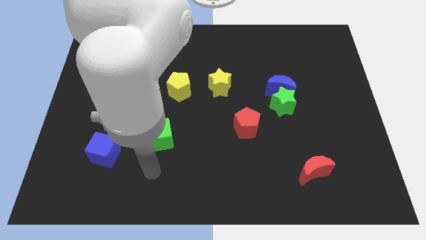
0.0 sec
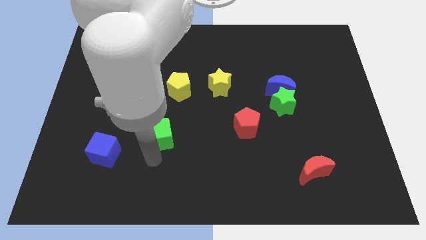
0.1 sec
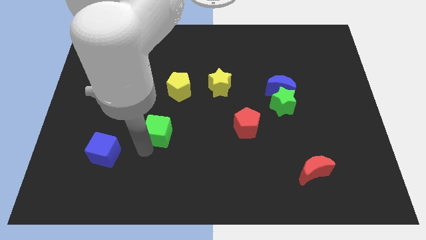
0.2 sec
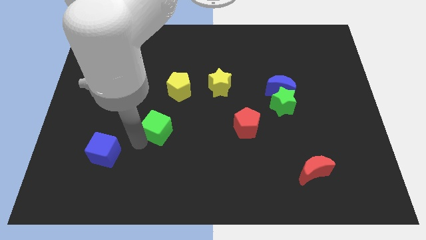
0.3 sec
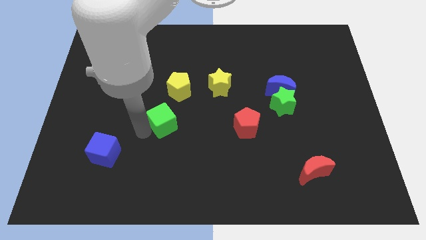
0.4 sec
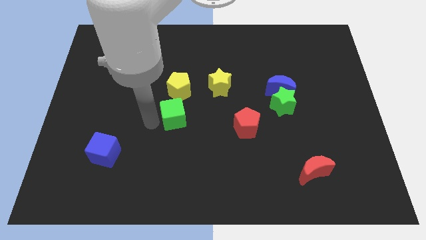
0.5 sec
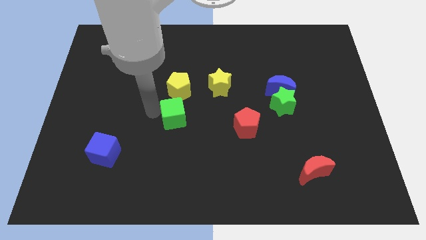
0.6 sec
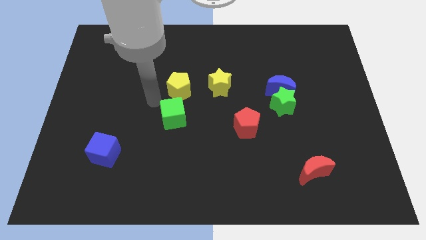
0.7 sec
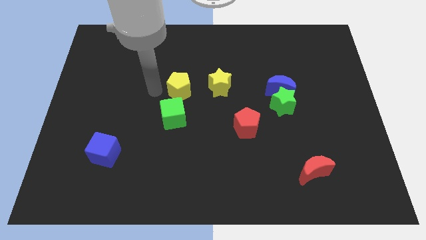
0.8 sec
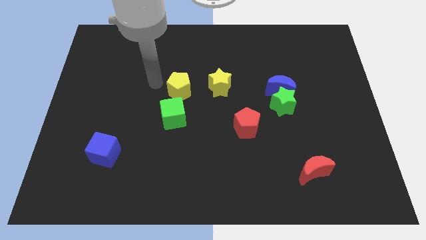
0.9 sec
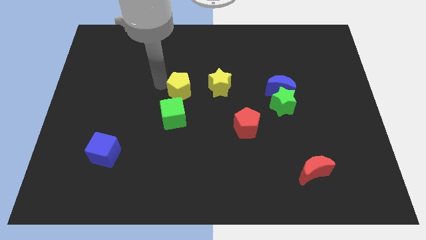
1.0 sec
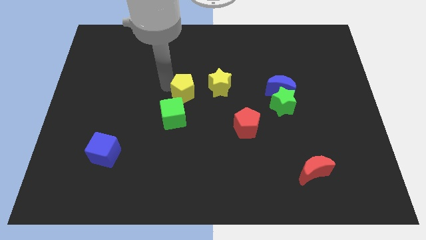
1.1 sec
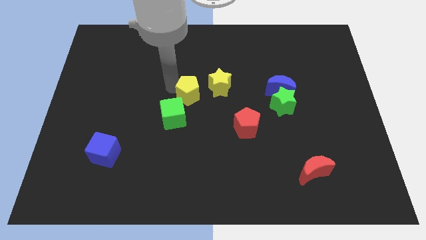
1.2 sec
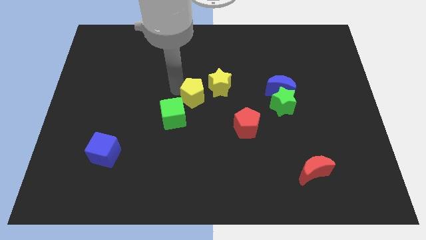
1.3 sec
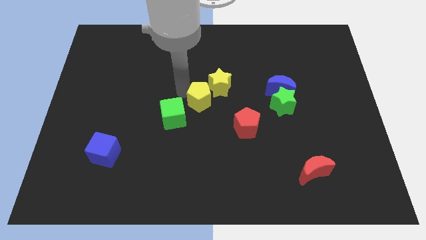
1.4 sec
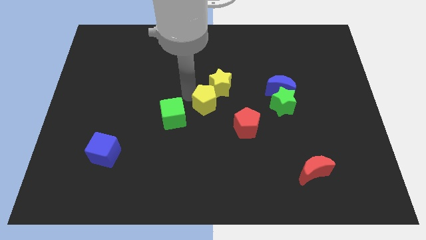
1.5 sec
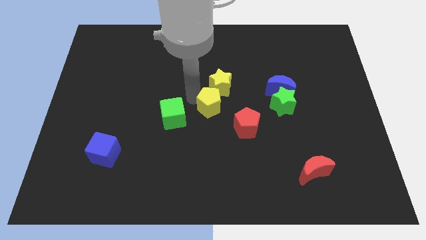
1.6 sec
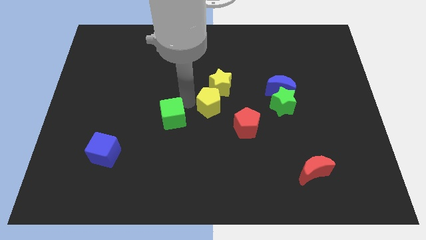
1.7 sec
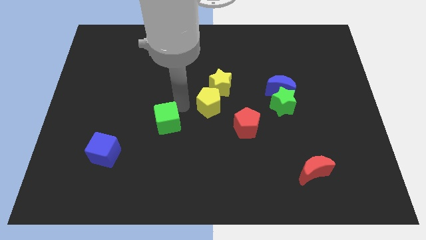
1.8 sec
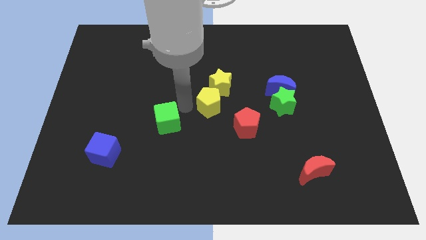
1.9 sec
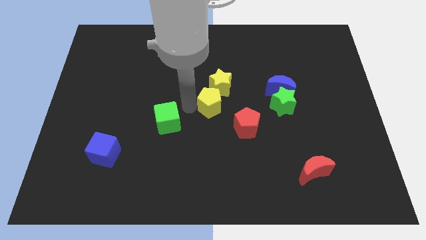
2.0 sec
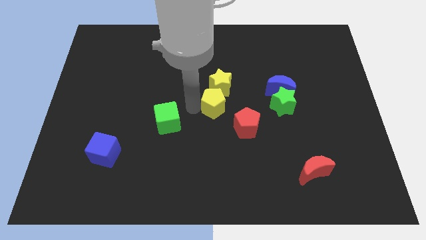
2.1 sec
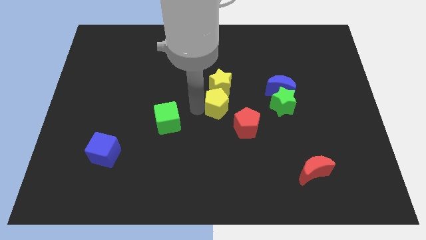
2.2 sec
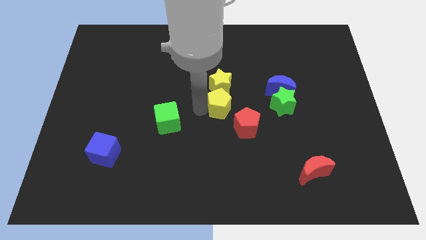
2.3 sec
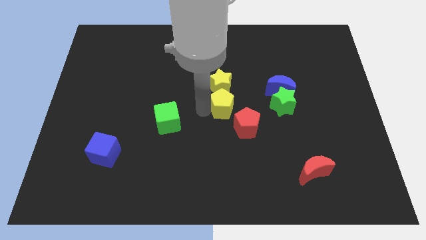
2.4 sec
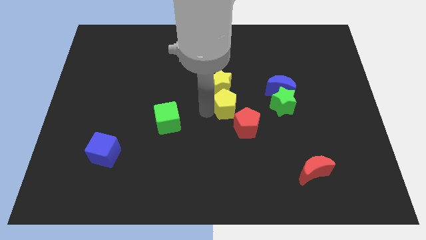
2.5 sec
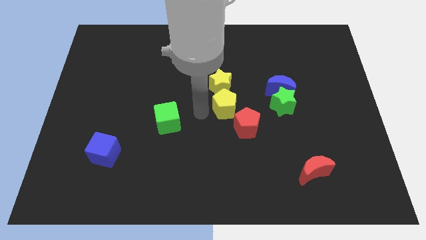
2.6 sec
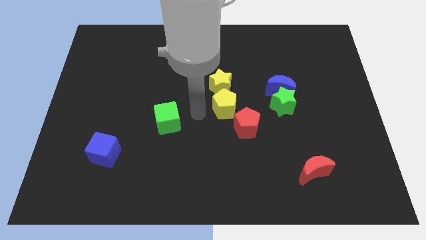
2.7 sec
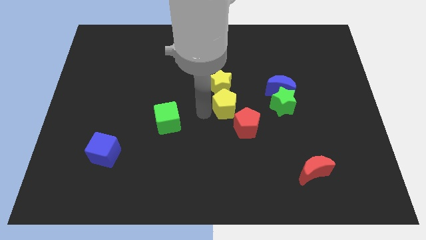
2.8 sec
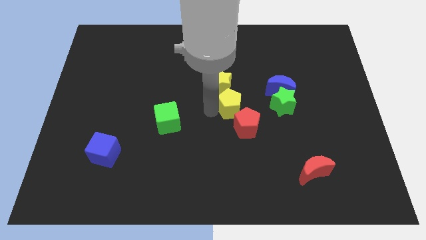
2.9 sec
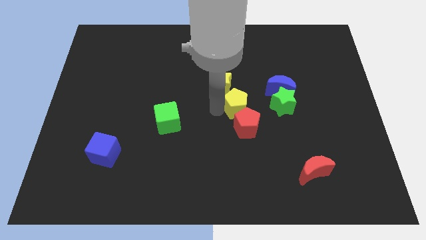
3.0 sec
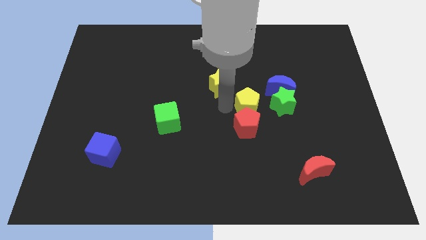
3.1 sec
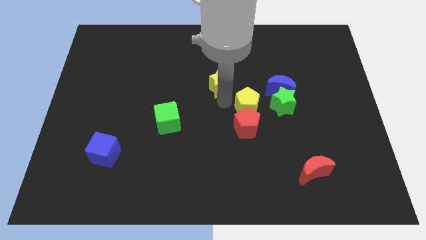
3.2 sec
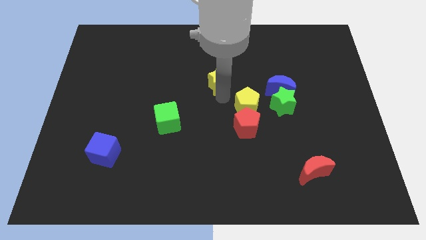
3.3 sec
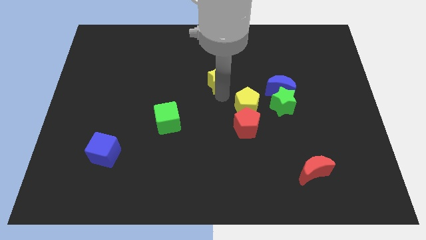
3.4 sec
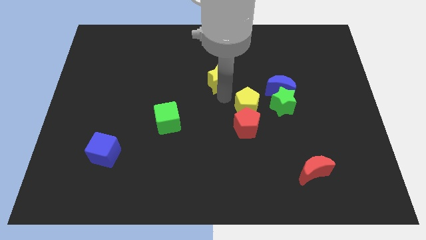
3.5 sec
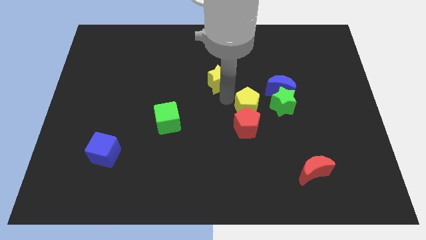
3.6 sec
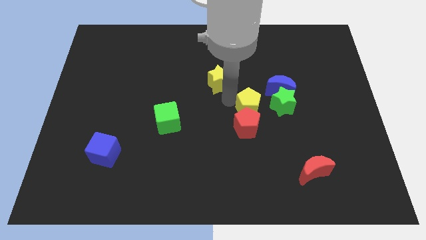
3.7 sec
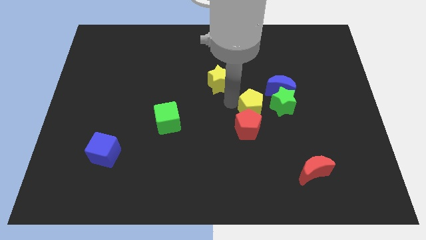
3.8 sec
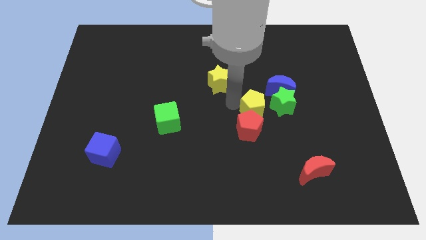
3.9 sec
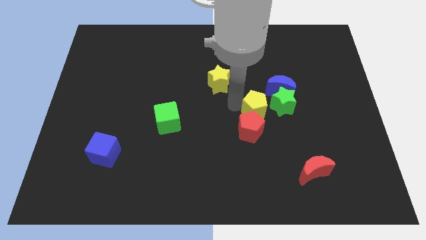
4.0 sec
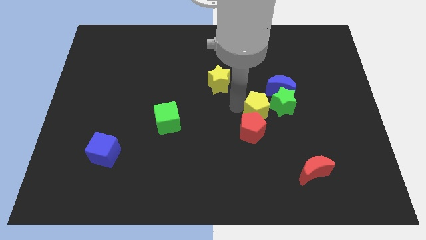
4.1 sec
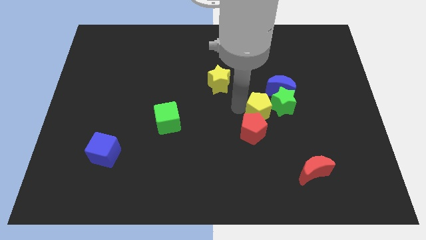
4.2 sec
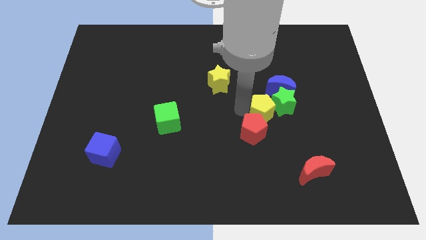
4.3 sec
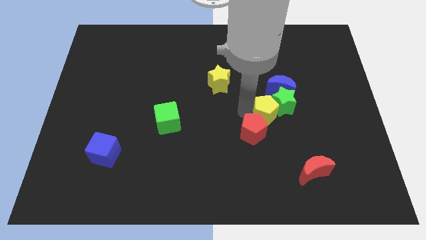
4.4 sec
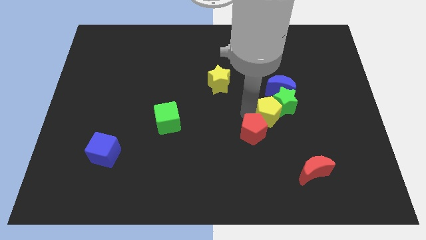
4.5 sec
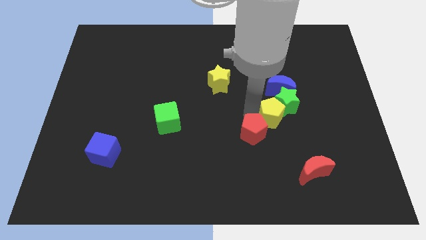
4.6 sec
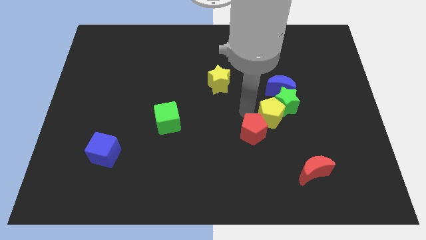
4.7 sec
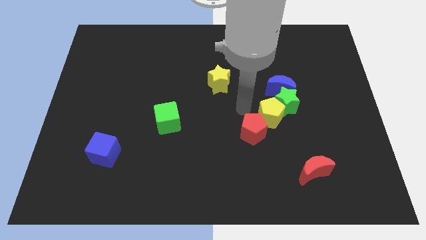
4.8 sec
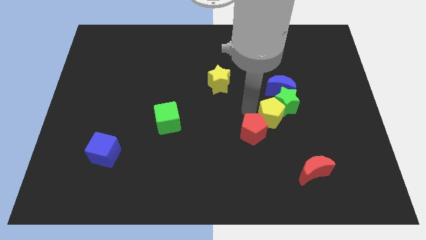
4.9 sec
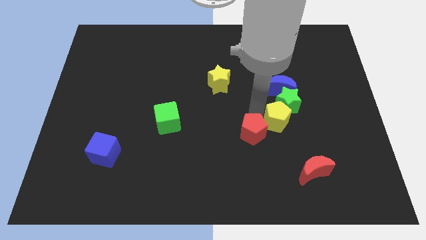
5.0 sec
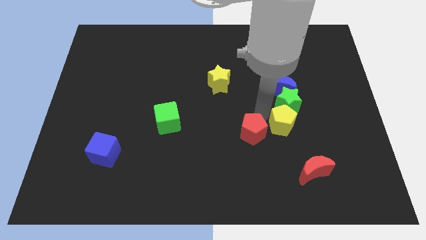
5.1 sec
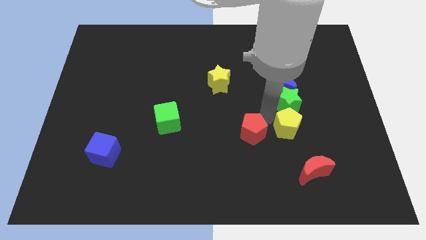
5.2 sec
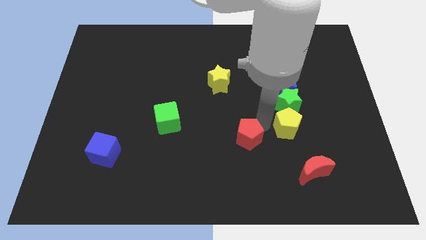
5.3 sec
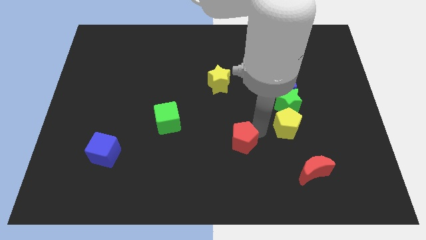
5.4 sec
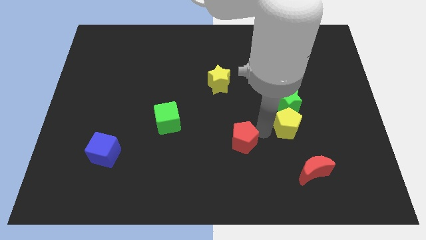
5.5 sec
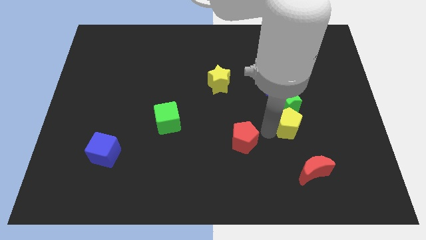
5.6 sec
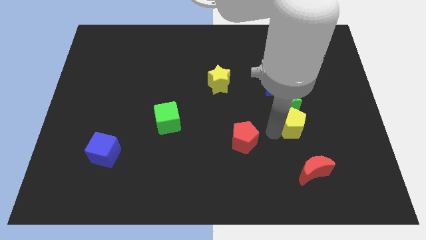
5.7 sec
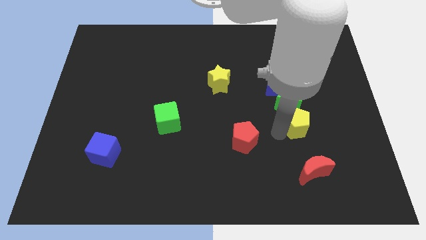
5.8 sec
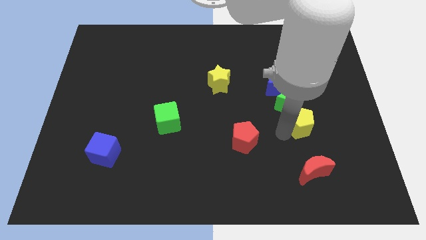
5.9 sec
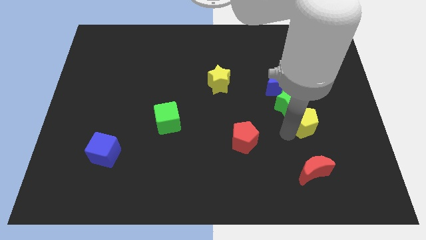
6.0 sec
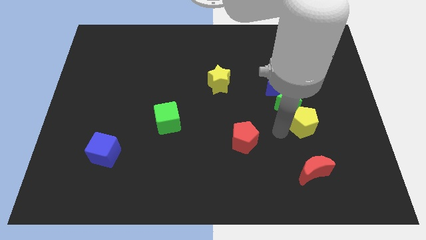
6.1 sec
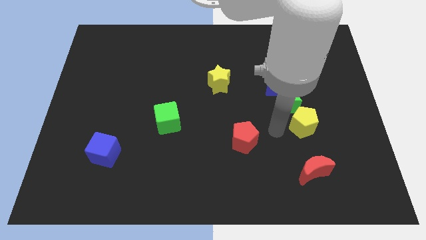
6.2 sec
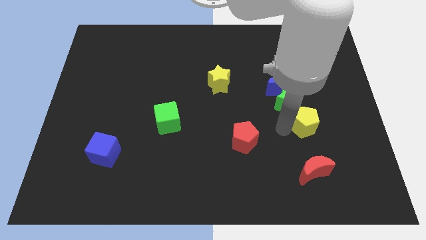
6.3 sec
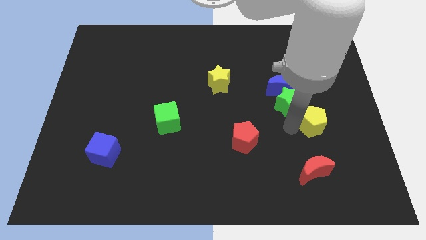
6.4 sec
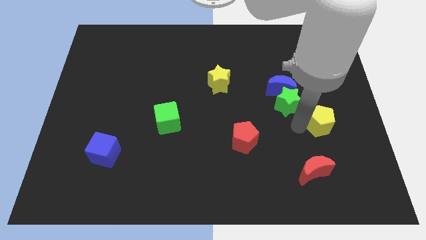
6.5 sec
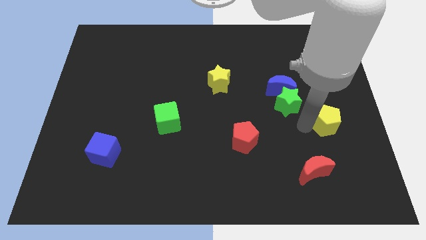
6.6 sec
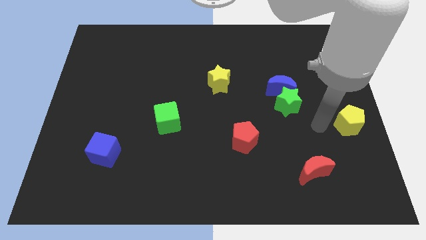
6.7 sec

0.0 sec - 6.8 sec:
put the yellow pentagon to the right side of the board
